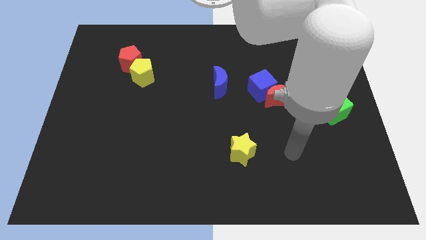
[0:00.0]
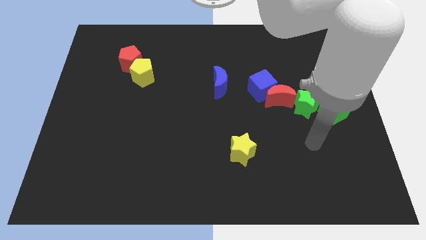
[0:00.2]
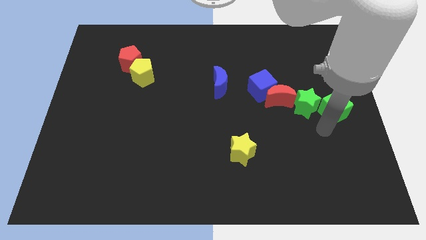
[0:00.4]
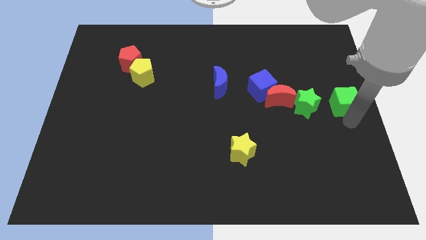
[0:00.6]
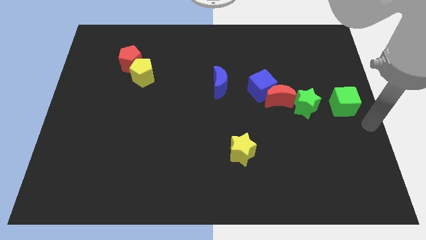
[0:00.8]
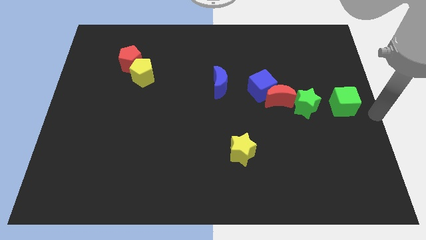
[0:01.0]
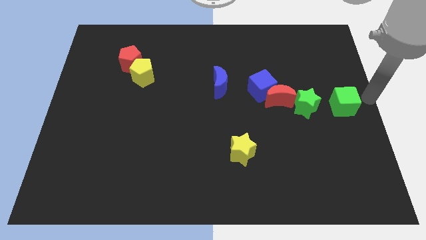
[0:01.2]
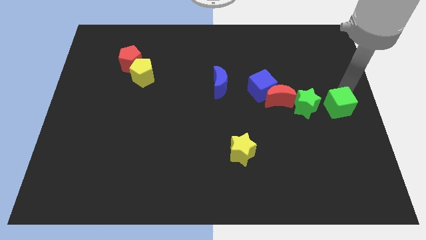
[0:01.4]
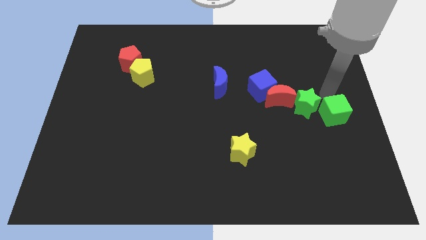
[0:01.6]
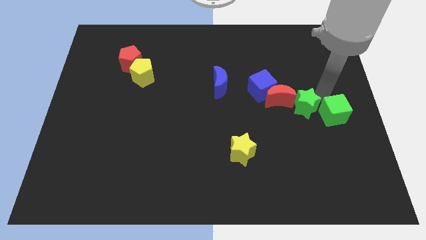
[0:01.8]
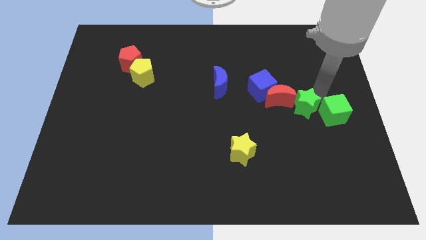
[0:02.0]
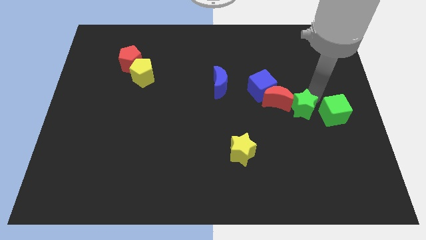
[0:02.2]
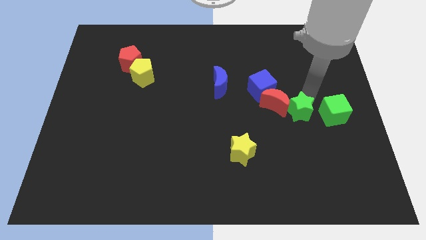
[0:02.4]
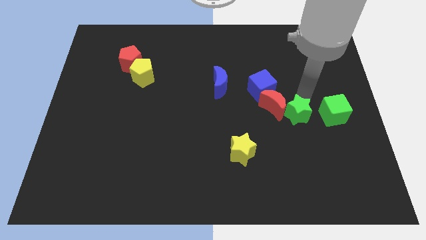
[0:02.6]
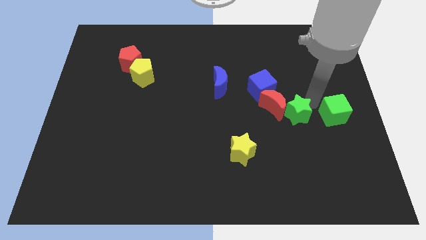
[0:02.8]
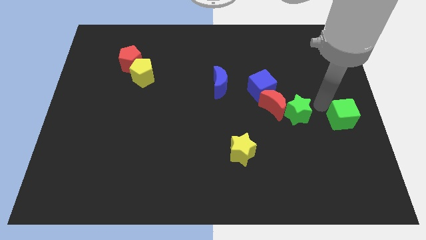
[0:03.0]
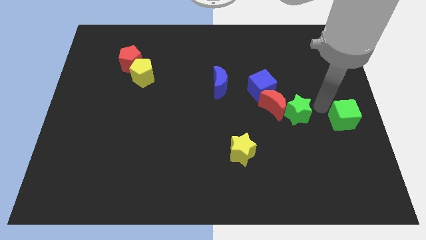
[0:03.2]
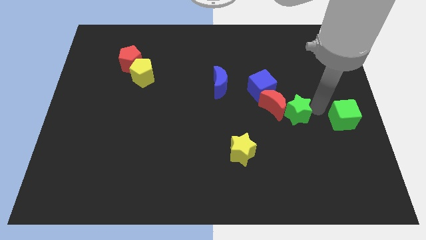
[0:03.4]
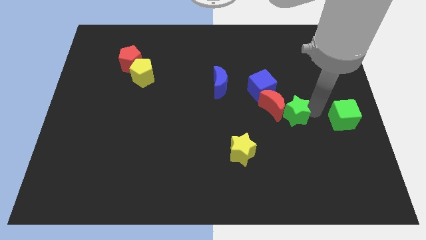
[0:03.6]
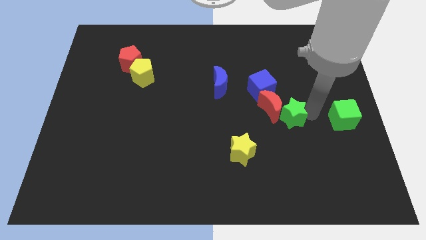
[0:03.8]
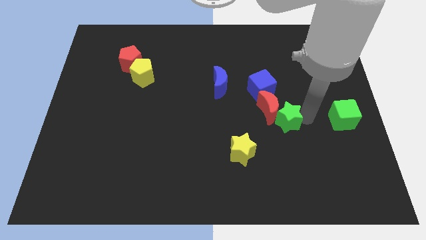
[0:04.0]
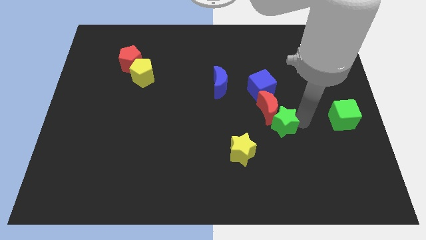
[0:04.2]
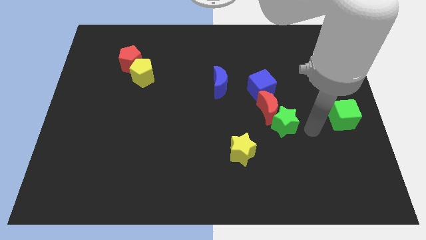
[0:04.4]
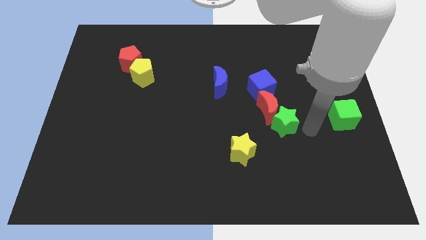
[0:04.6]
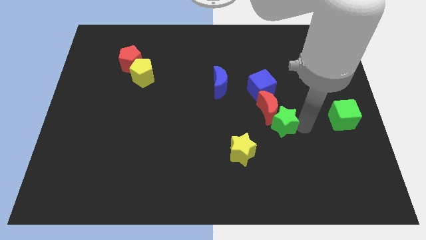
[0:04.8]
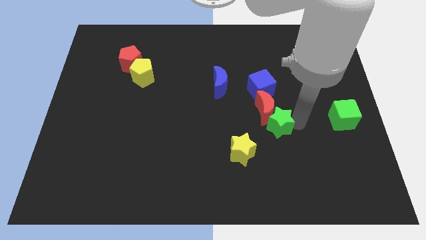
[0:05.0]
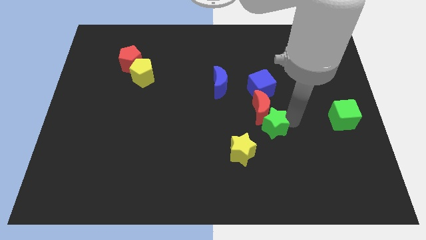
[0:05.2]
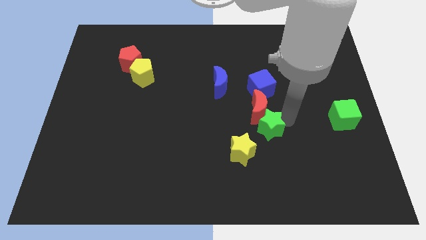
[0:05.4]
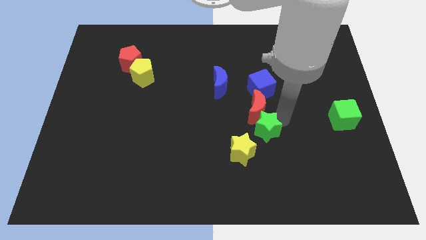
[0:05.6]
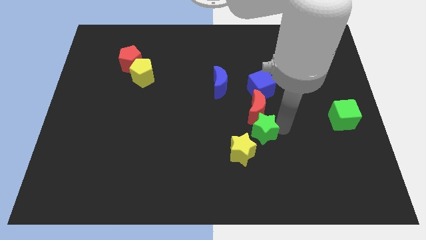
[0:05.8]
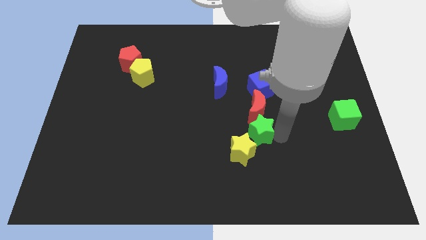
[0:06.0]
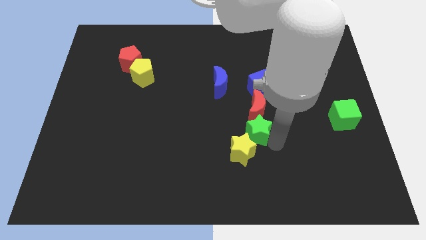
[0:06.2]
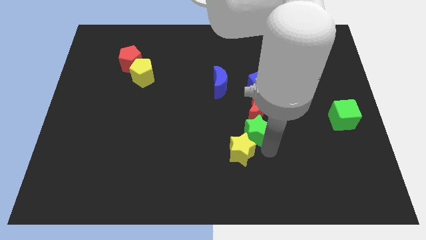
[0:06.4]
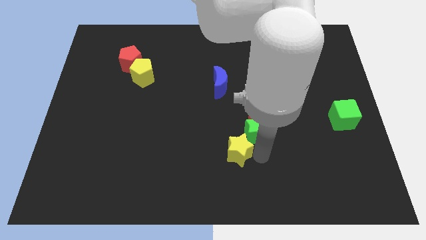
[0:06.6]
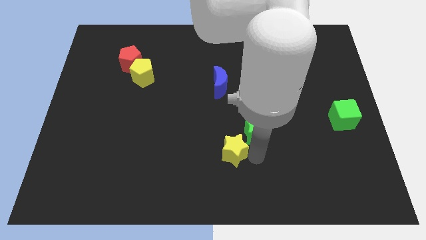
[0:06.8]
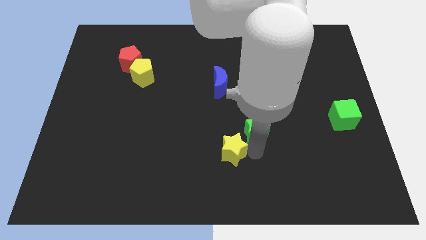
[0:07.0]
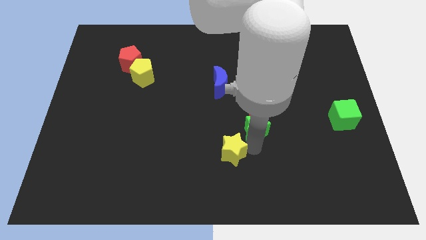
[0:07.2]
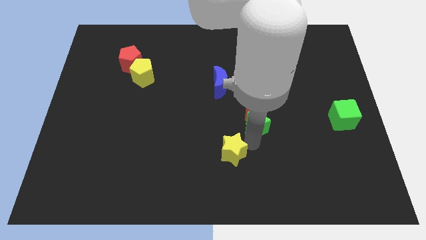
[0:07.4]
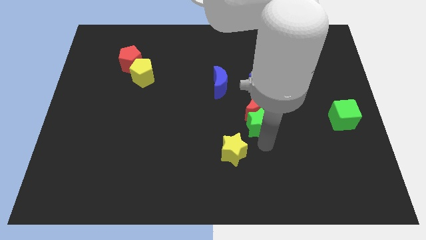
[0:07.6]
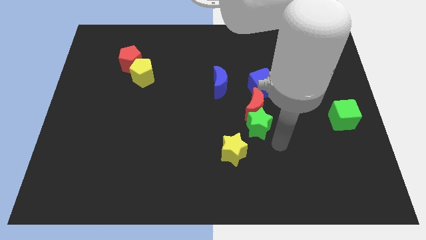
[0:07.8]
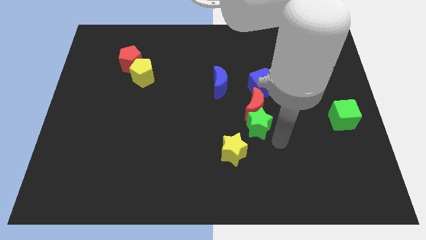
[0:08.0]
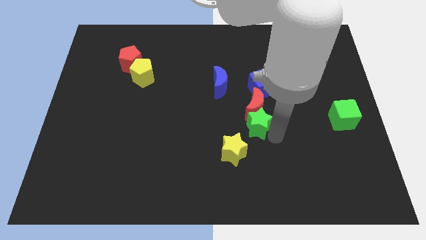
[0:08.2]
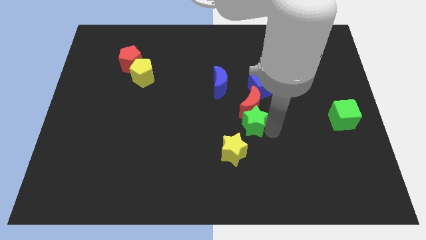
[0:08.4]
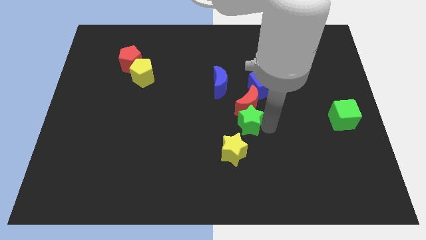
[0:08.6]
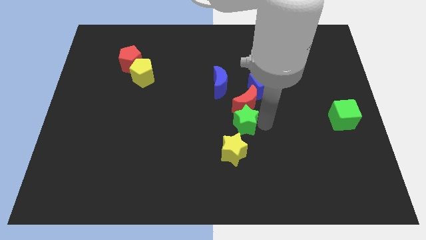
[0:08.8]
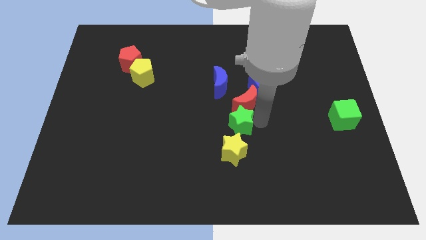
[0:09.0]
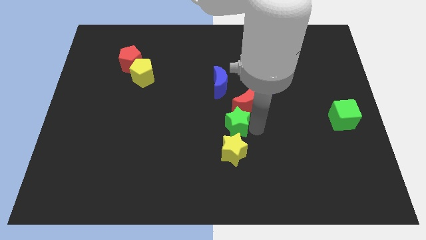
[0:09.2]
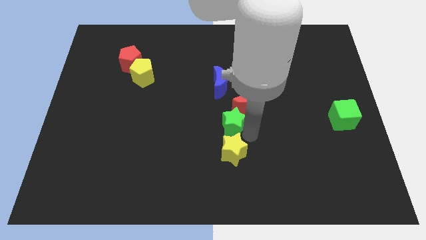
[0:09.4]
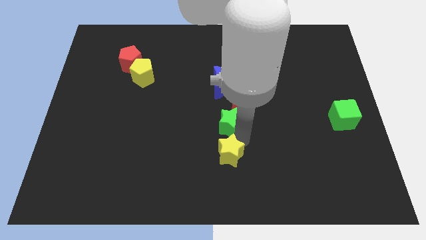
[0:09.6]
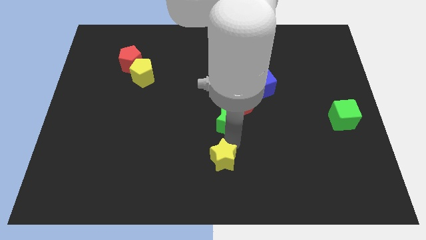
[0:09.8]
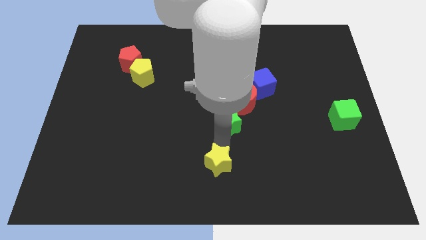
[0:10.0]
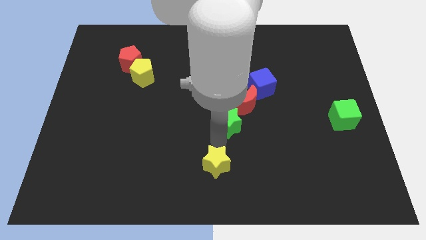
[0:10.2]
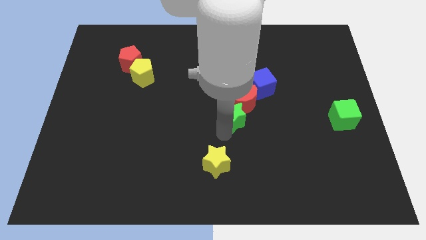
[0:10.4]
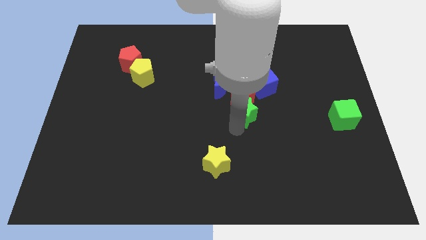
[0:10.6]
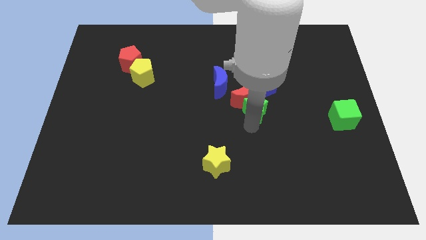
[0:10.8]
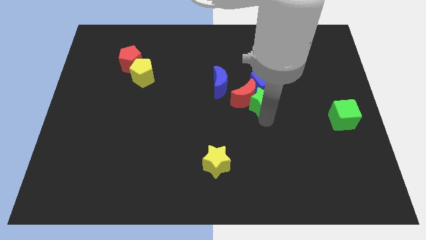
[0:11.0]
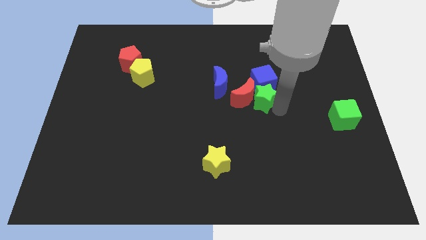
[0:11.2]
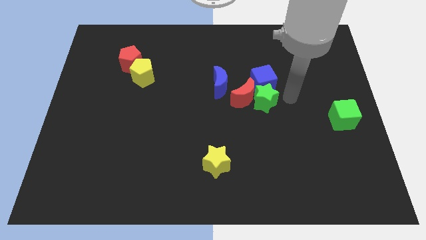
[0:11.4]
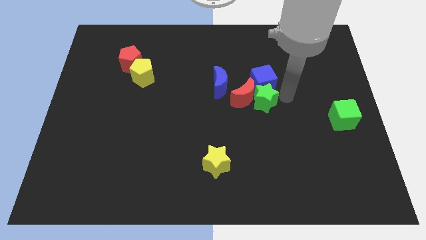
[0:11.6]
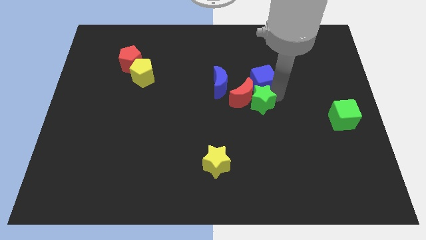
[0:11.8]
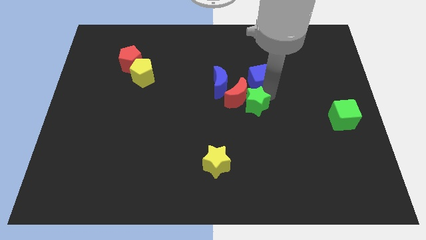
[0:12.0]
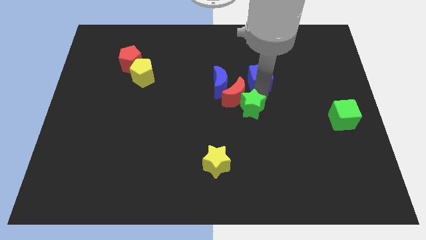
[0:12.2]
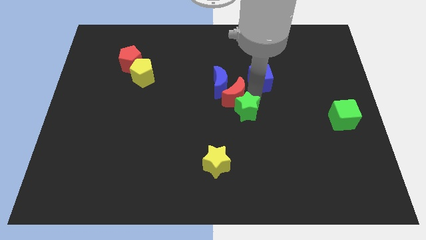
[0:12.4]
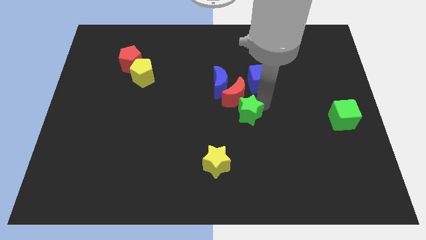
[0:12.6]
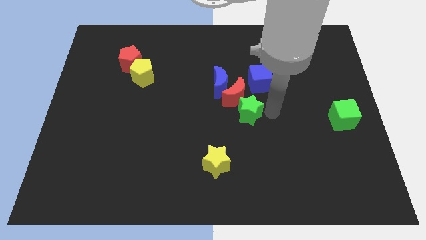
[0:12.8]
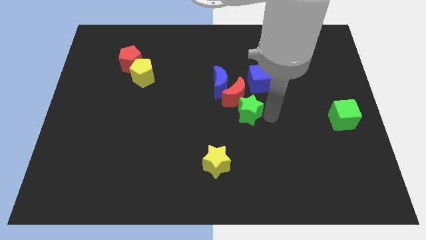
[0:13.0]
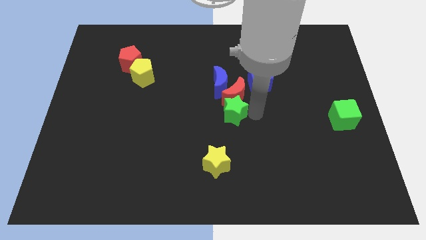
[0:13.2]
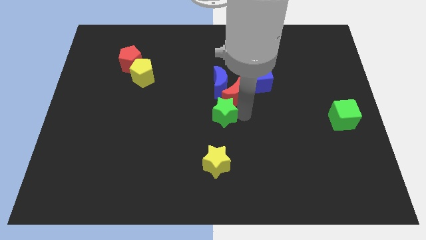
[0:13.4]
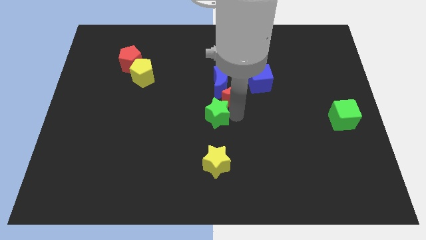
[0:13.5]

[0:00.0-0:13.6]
slide the green star to the left

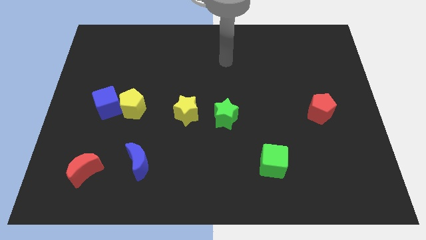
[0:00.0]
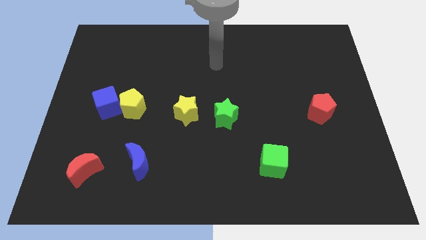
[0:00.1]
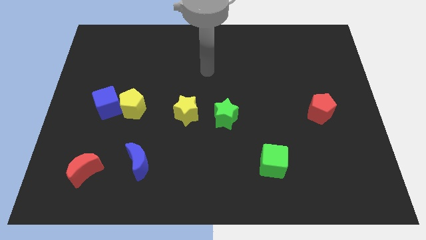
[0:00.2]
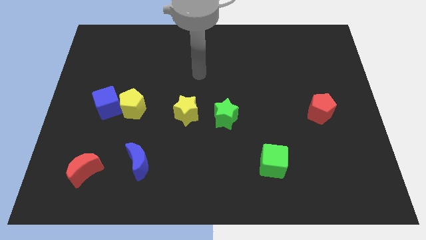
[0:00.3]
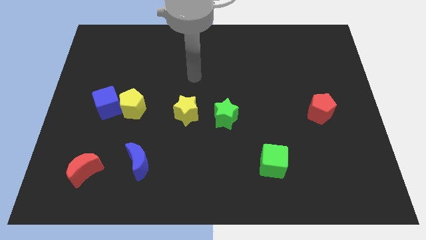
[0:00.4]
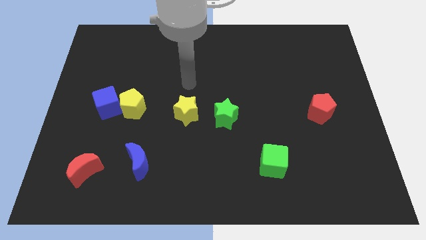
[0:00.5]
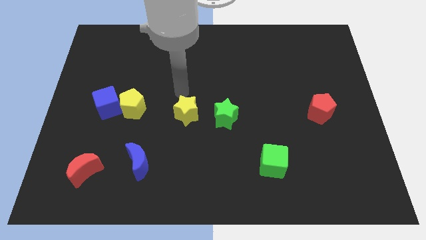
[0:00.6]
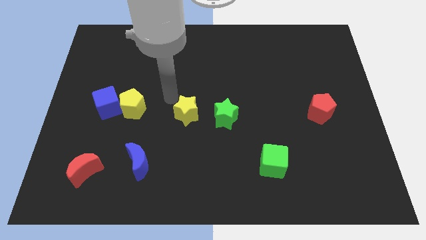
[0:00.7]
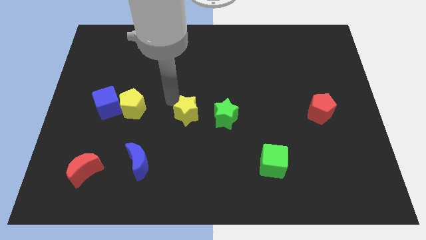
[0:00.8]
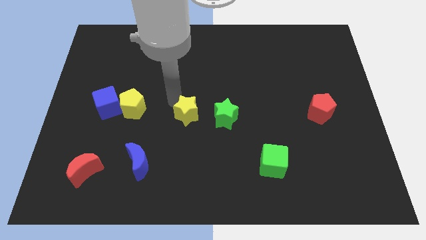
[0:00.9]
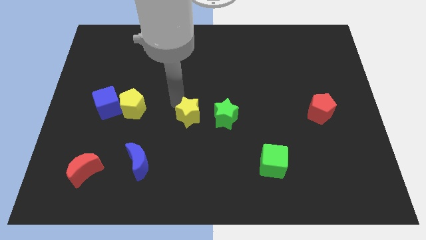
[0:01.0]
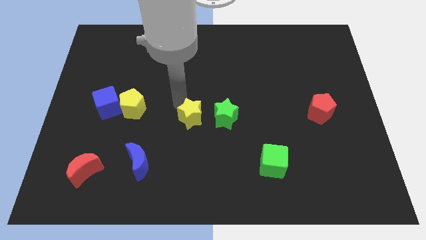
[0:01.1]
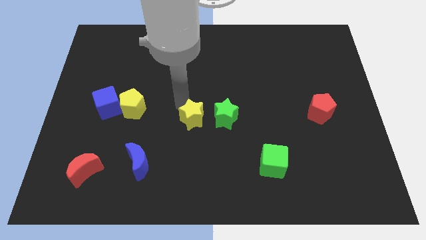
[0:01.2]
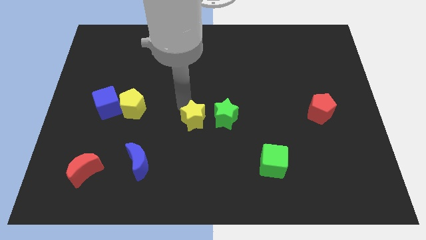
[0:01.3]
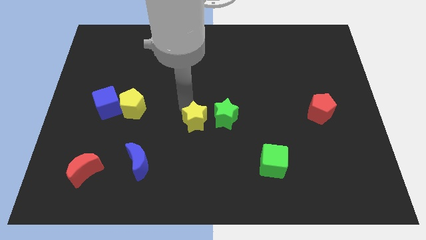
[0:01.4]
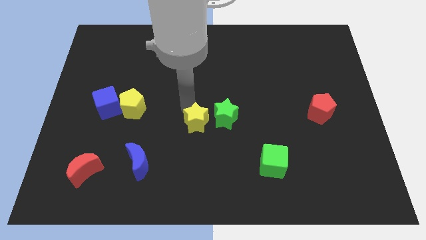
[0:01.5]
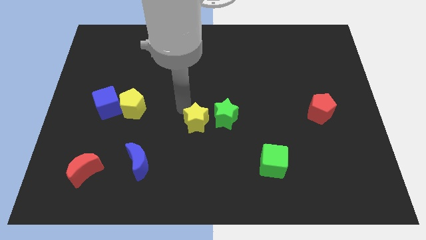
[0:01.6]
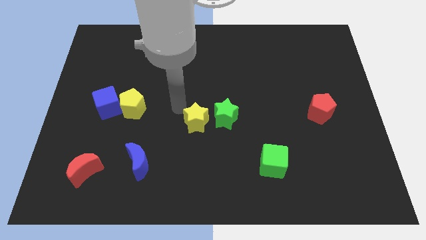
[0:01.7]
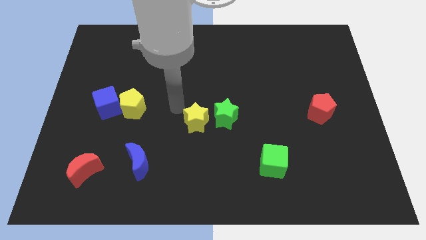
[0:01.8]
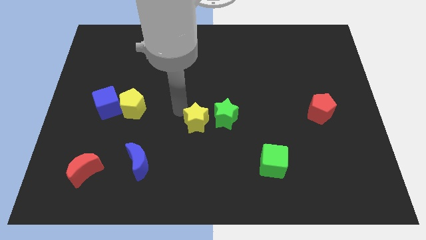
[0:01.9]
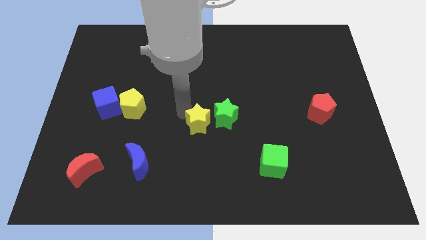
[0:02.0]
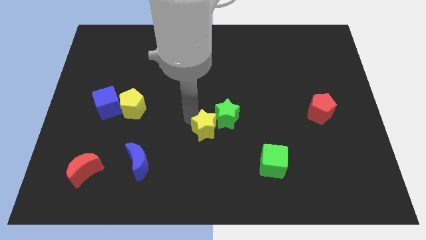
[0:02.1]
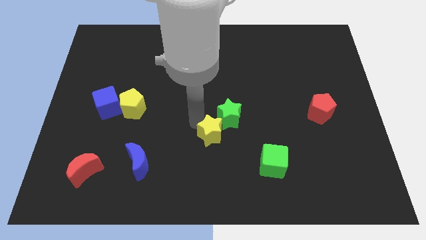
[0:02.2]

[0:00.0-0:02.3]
move the yellow star a little bit down and right
